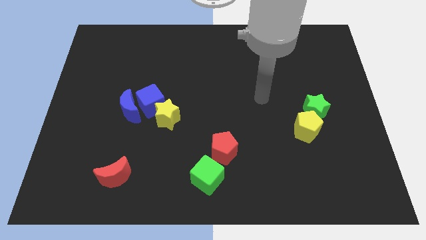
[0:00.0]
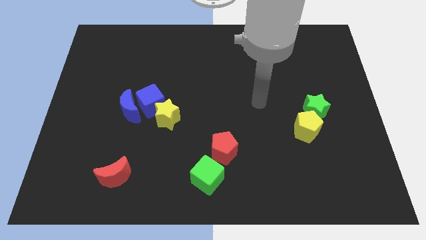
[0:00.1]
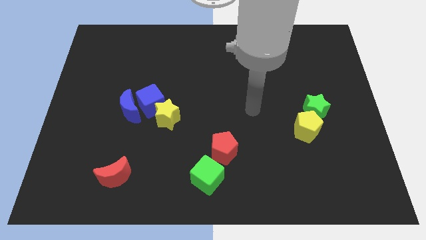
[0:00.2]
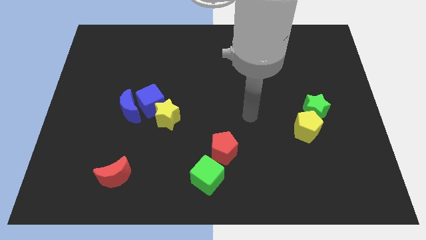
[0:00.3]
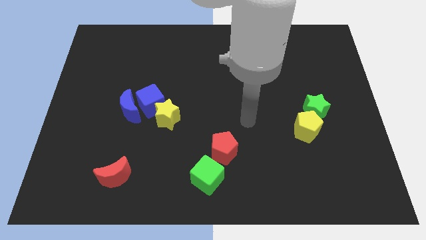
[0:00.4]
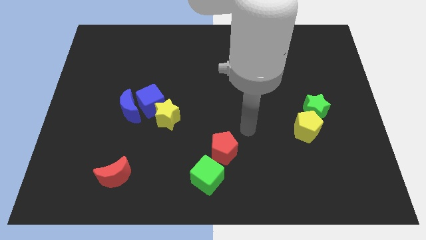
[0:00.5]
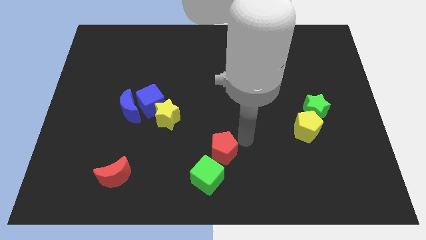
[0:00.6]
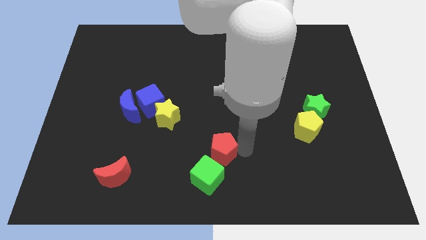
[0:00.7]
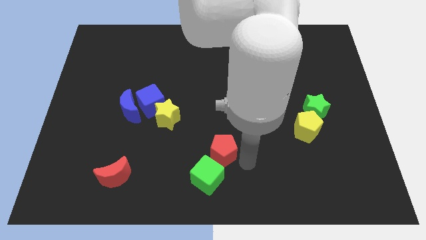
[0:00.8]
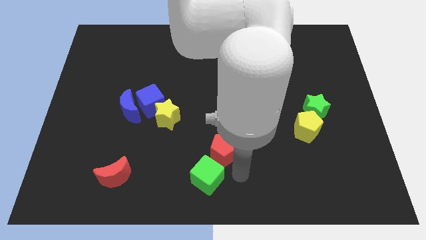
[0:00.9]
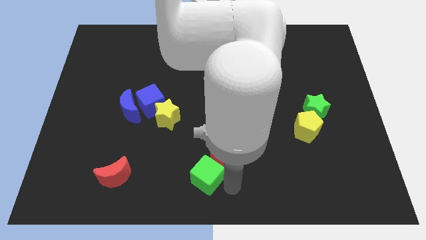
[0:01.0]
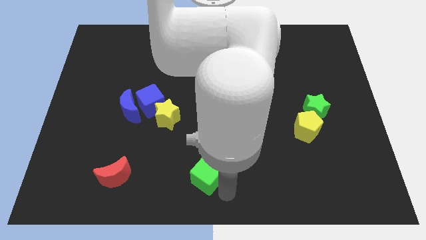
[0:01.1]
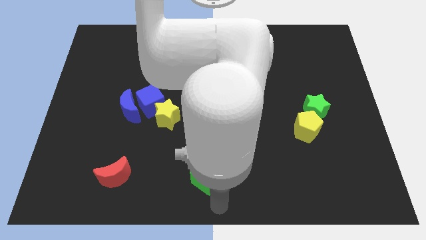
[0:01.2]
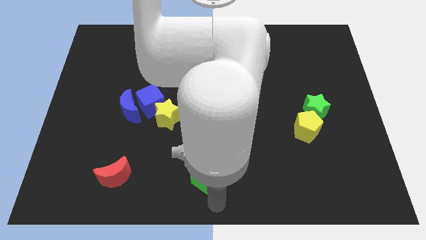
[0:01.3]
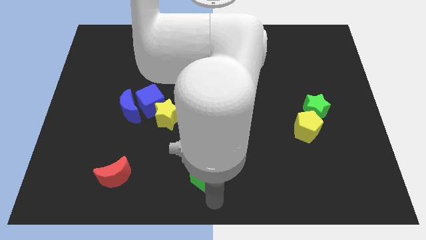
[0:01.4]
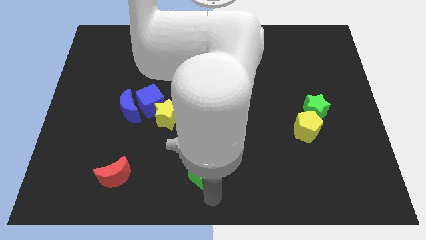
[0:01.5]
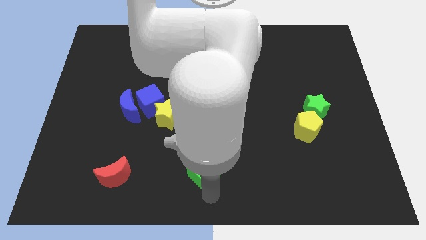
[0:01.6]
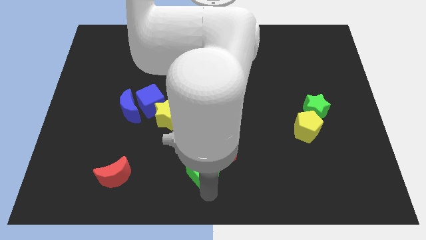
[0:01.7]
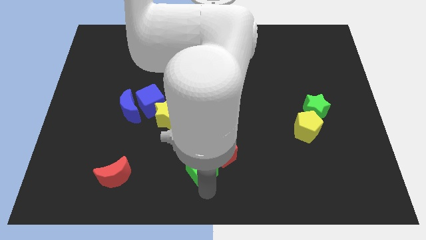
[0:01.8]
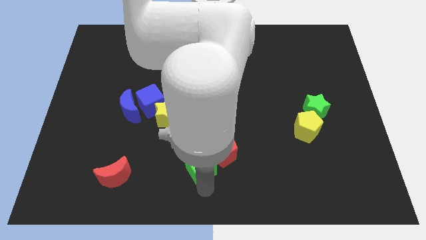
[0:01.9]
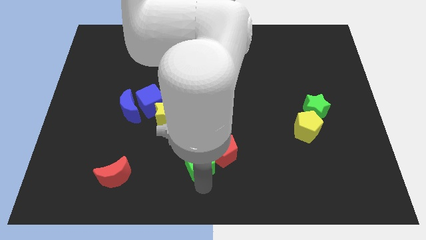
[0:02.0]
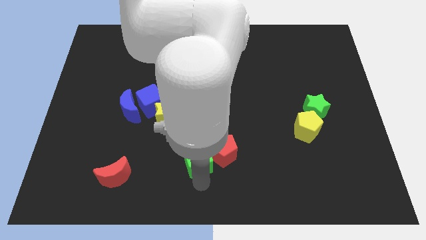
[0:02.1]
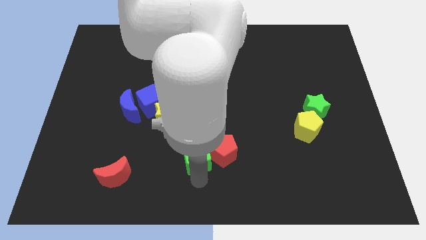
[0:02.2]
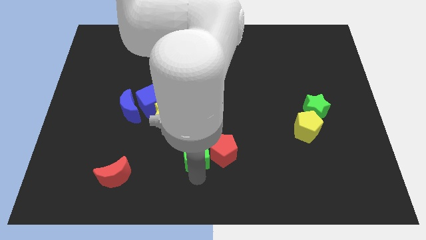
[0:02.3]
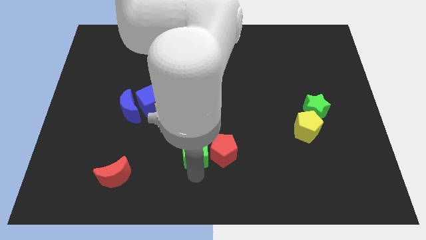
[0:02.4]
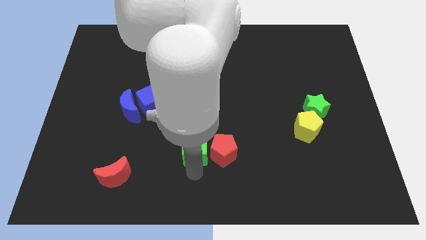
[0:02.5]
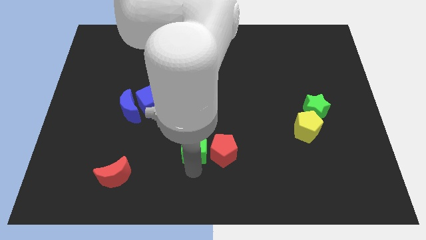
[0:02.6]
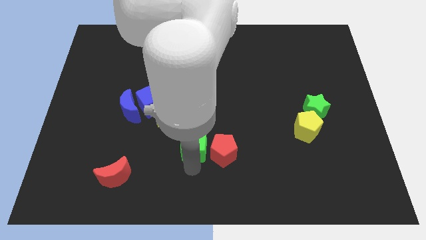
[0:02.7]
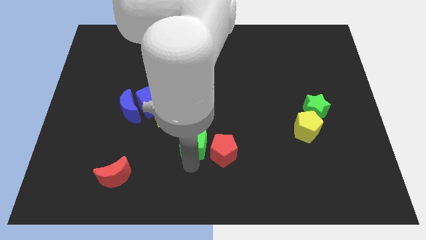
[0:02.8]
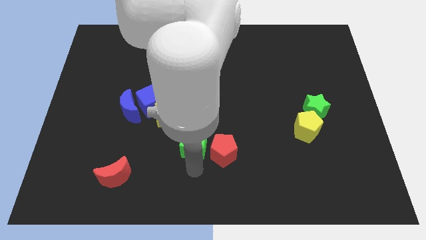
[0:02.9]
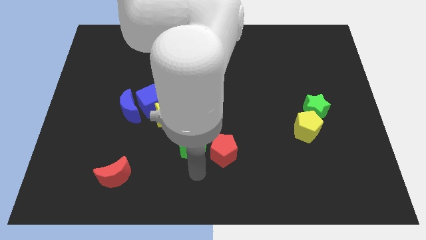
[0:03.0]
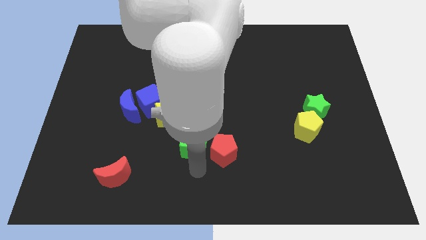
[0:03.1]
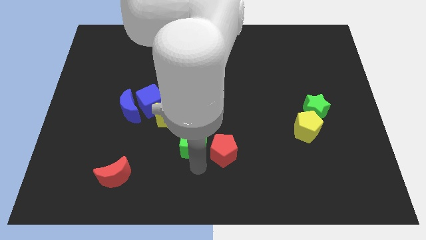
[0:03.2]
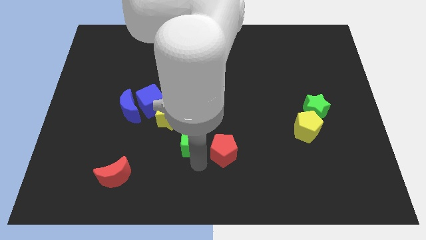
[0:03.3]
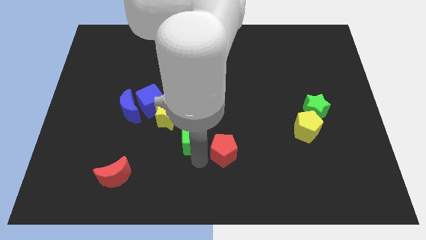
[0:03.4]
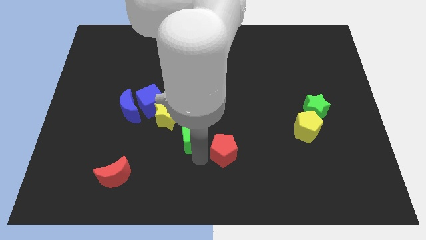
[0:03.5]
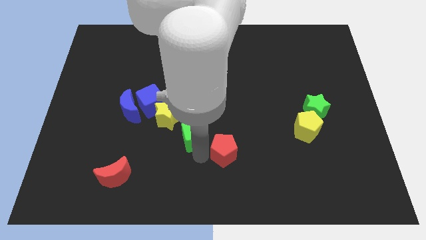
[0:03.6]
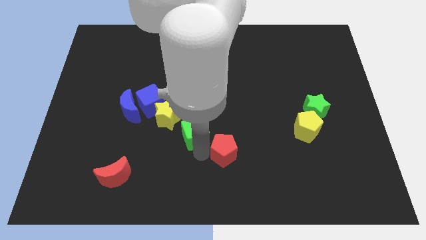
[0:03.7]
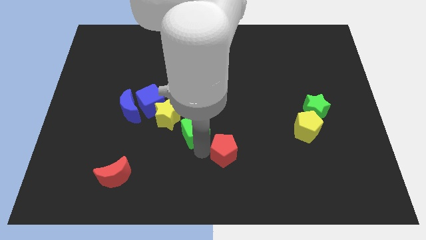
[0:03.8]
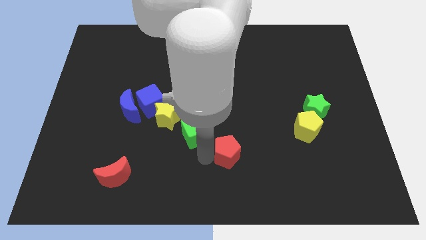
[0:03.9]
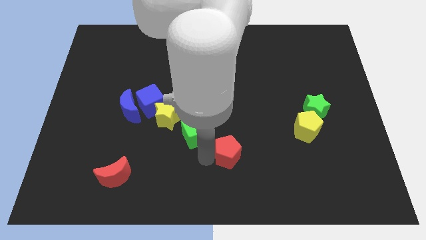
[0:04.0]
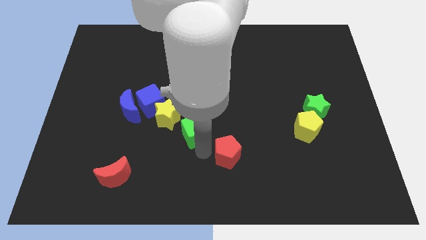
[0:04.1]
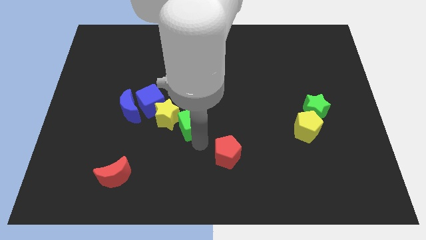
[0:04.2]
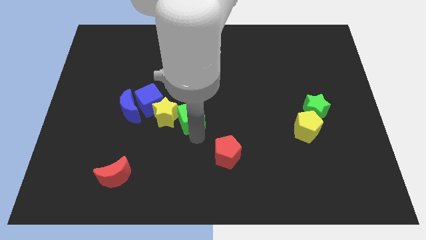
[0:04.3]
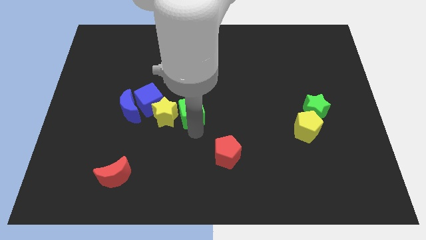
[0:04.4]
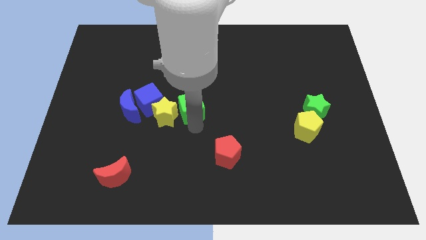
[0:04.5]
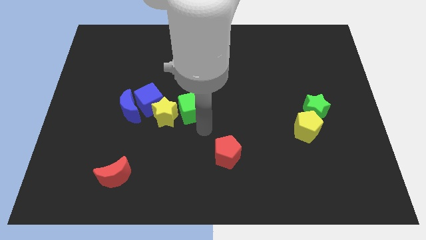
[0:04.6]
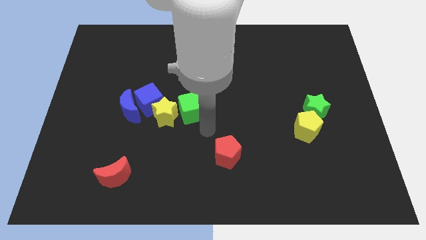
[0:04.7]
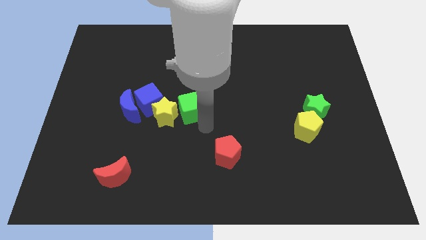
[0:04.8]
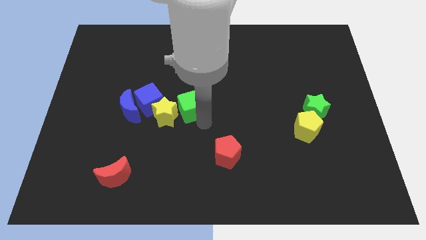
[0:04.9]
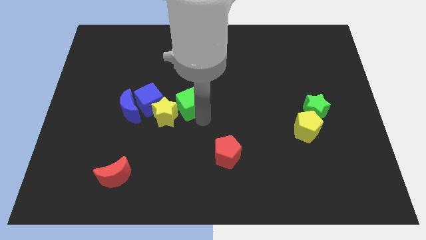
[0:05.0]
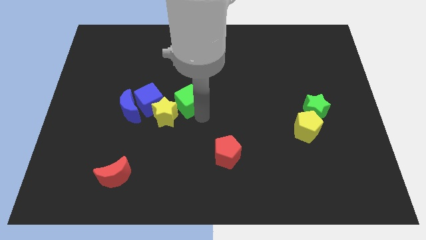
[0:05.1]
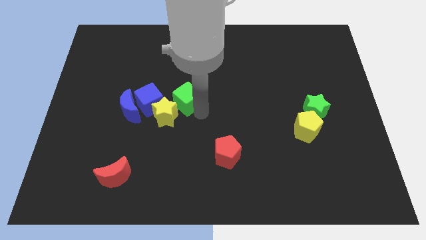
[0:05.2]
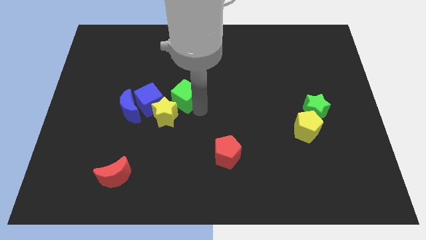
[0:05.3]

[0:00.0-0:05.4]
push the green cube above the yellow star

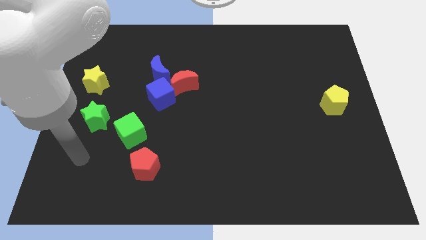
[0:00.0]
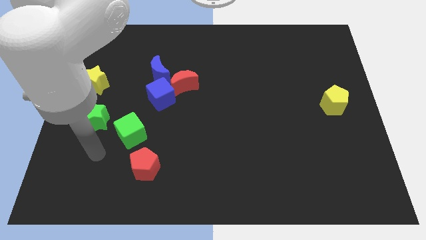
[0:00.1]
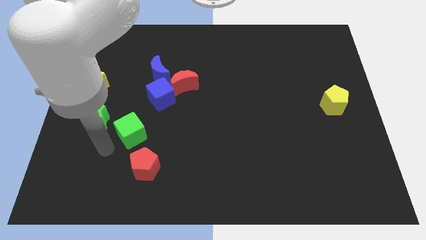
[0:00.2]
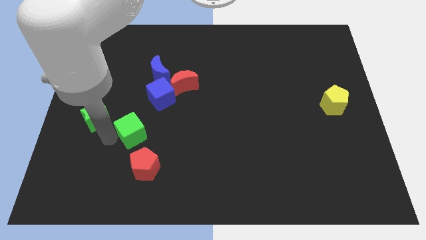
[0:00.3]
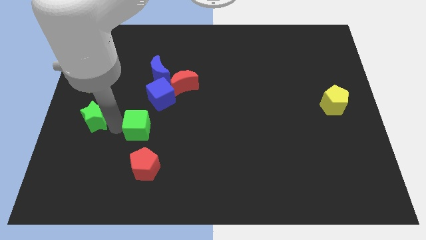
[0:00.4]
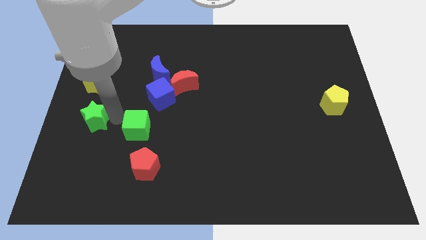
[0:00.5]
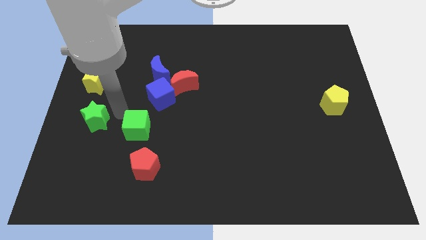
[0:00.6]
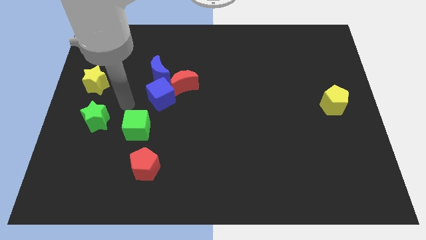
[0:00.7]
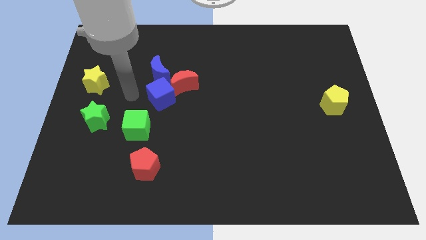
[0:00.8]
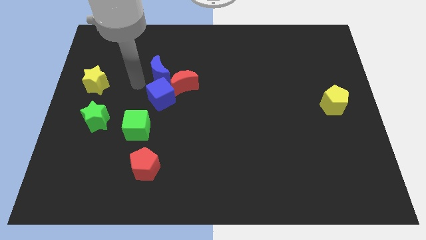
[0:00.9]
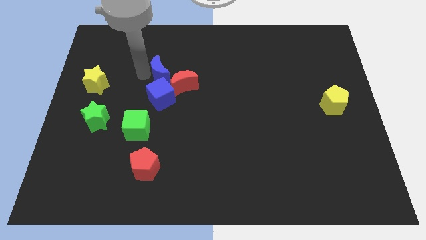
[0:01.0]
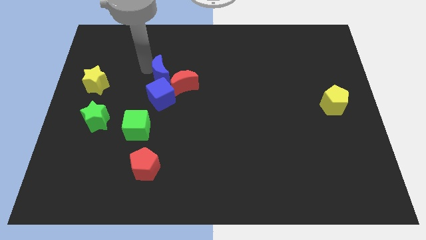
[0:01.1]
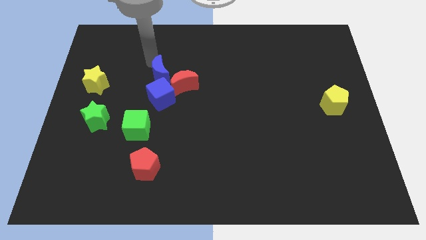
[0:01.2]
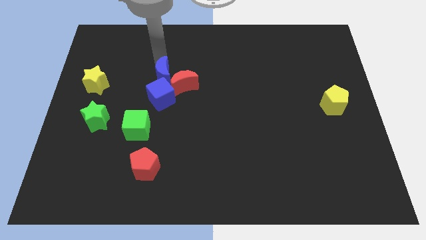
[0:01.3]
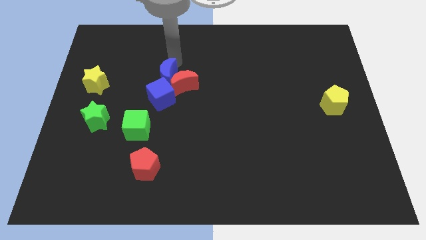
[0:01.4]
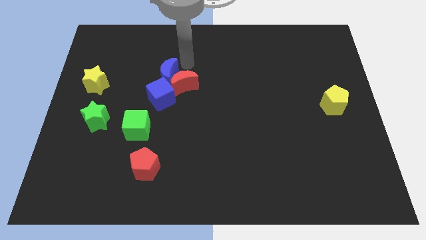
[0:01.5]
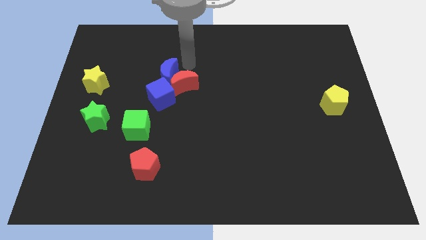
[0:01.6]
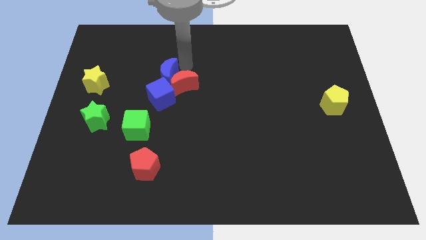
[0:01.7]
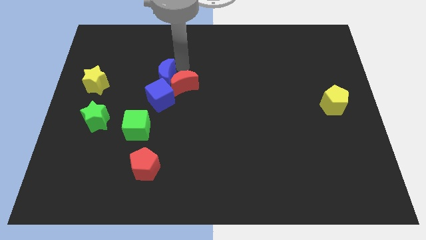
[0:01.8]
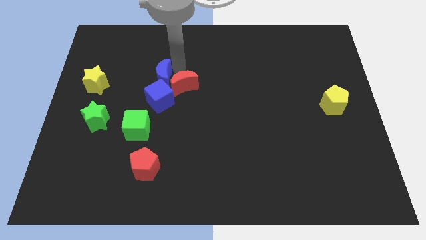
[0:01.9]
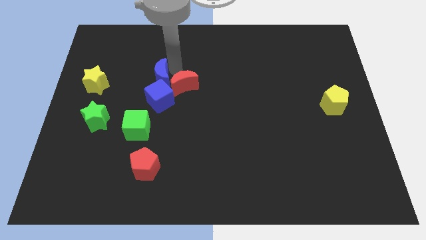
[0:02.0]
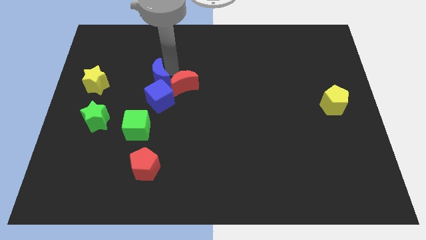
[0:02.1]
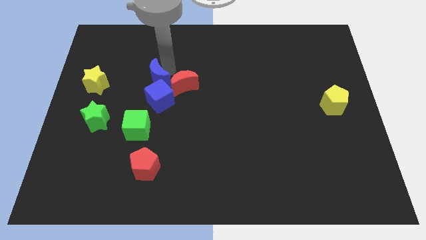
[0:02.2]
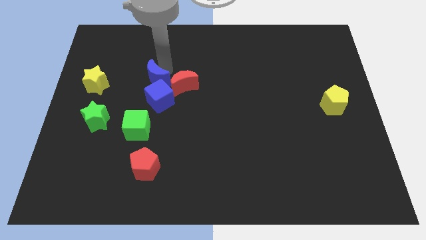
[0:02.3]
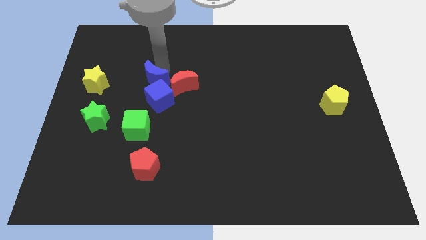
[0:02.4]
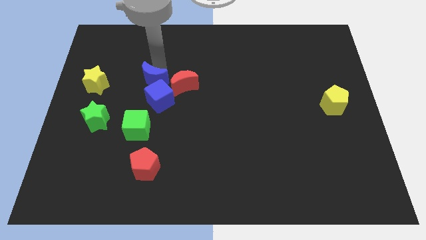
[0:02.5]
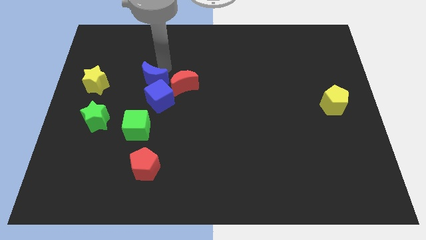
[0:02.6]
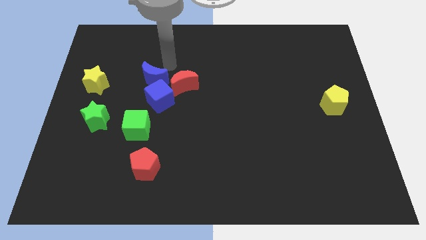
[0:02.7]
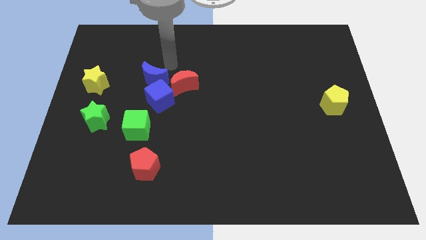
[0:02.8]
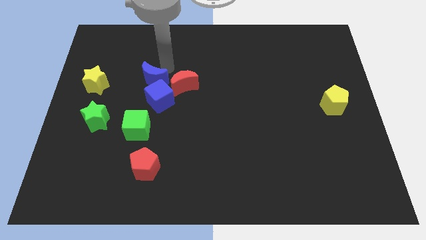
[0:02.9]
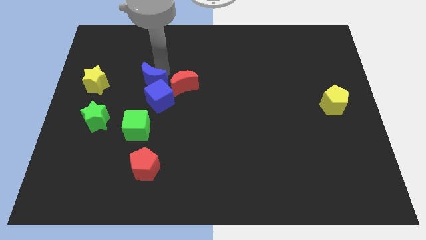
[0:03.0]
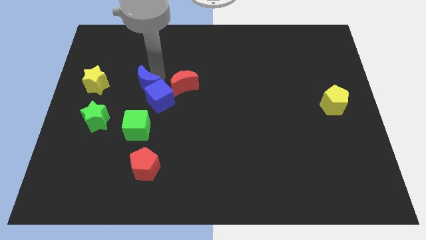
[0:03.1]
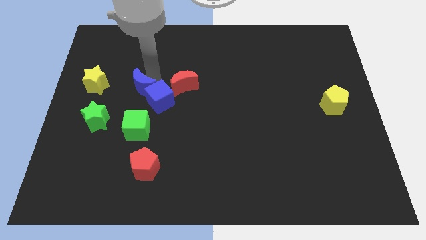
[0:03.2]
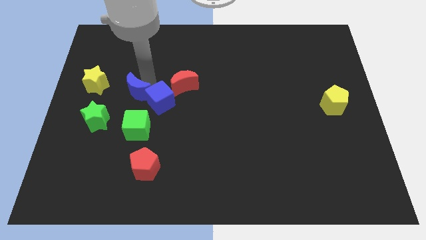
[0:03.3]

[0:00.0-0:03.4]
put the blue moon to the top right of the green star
